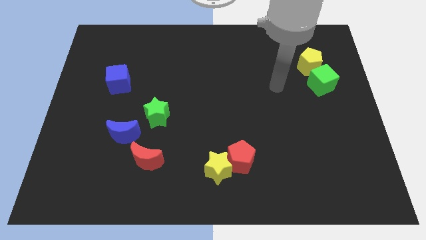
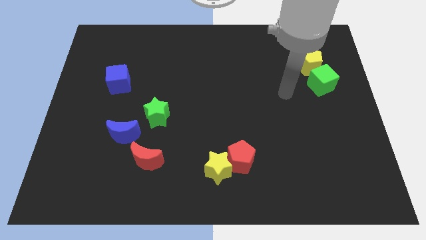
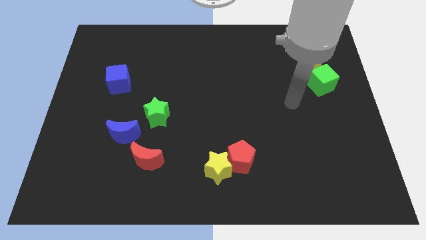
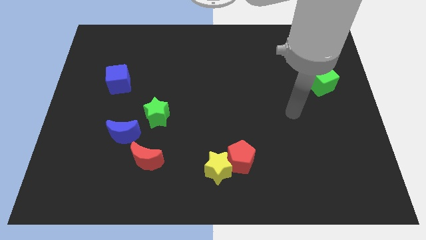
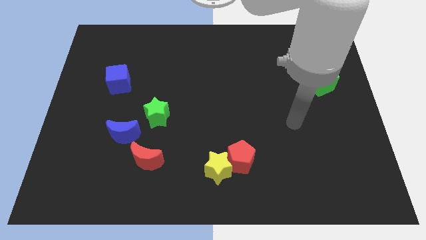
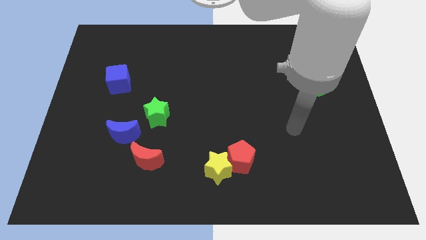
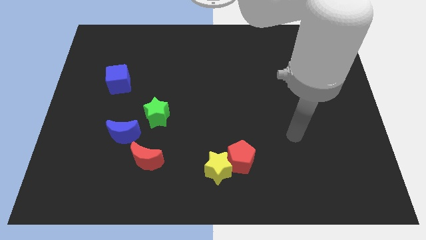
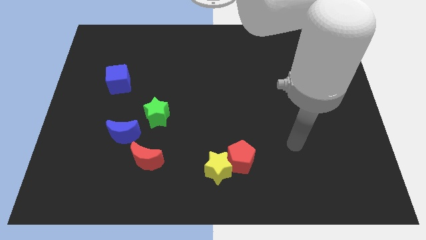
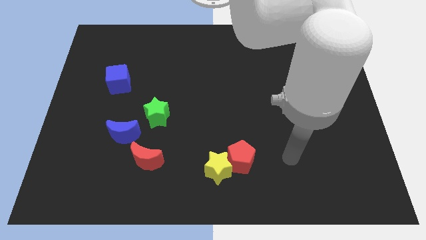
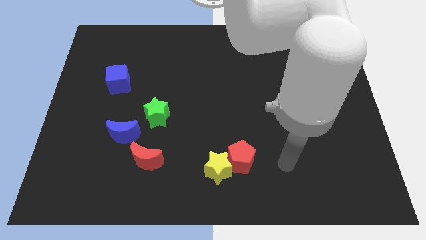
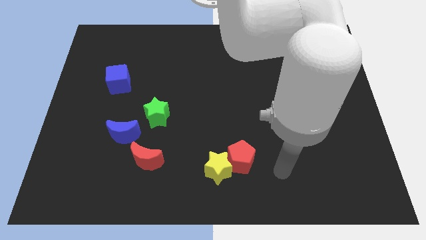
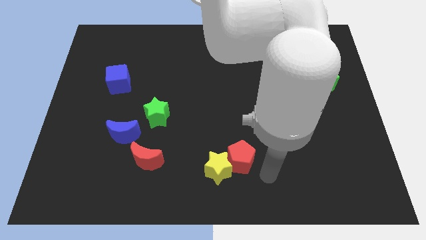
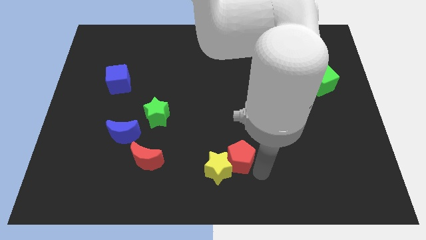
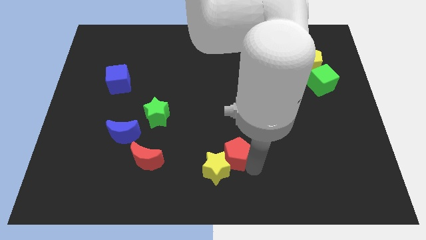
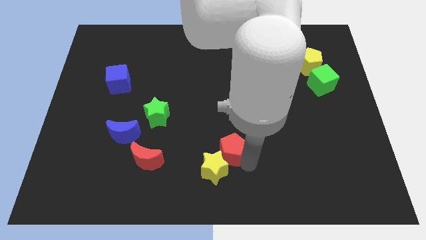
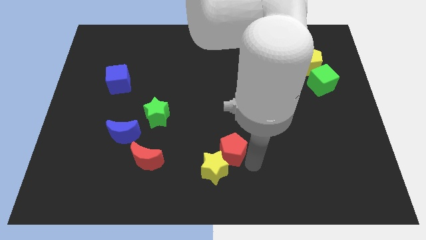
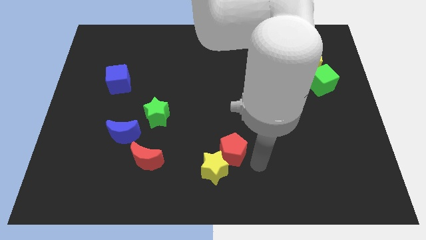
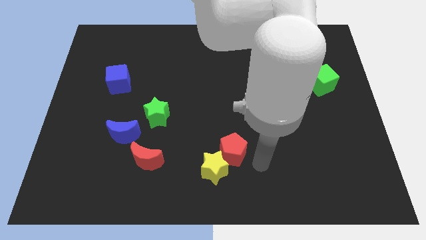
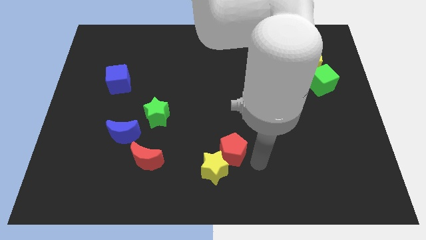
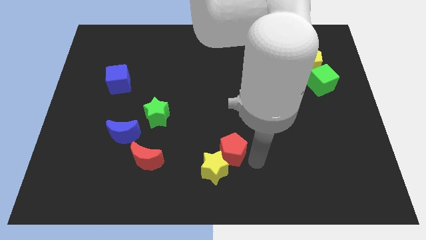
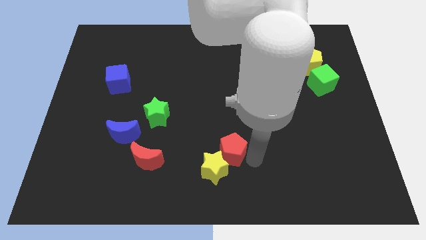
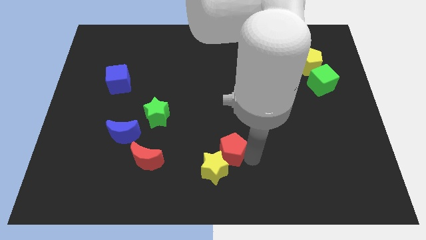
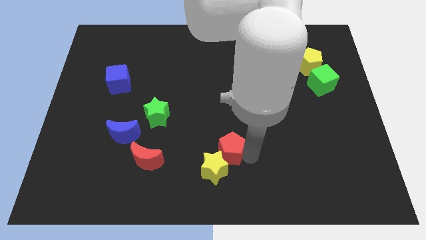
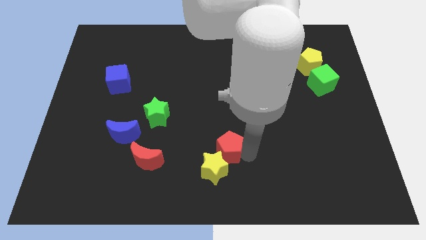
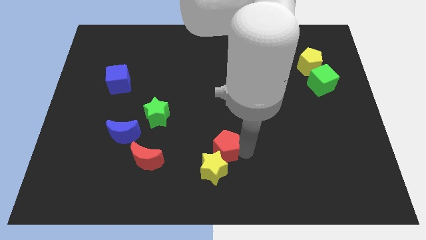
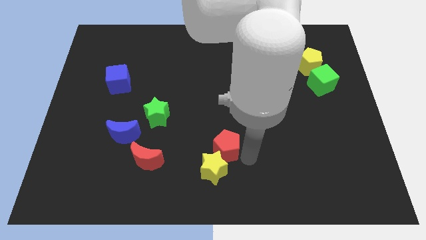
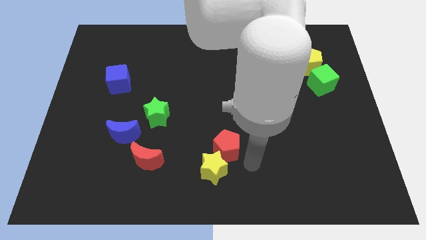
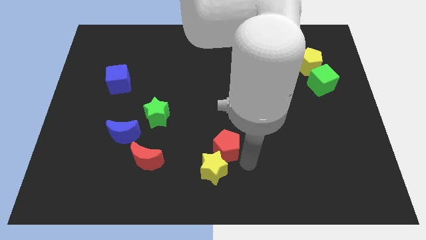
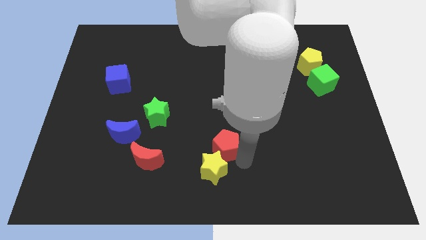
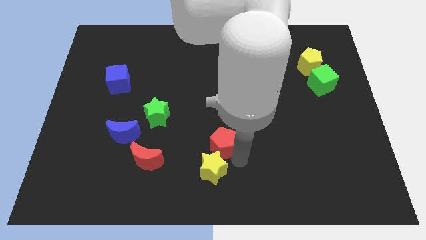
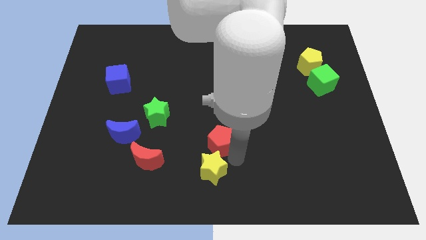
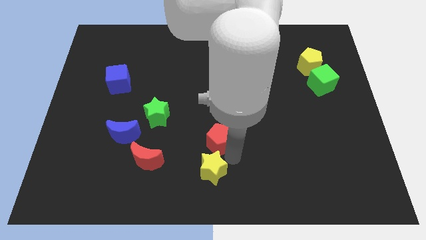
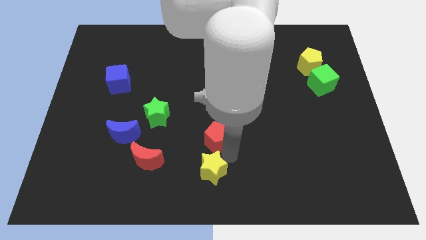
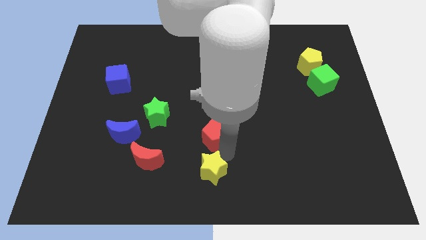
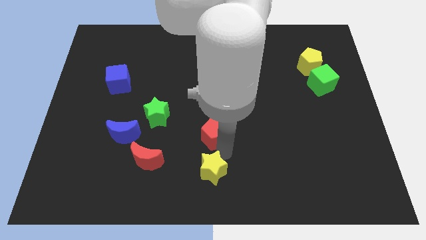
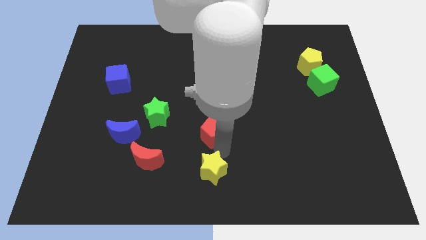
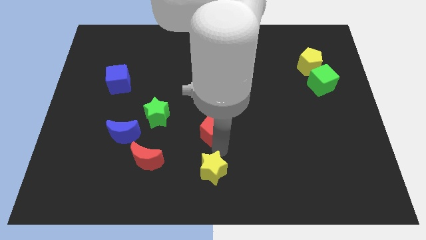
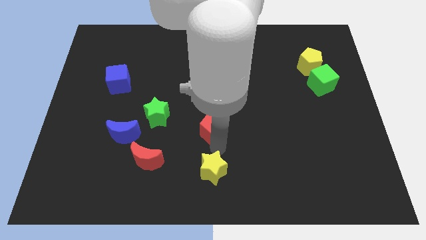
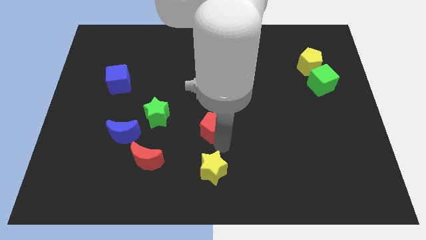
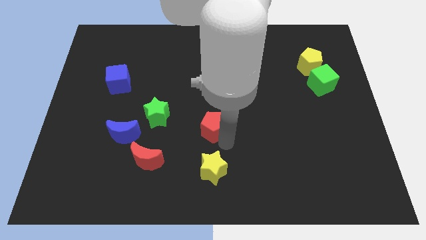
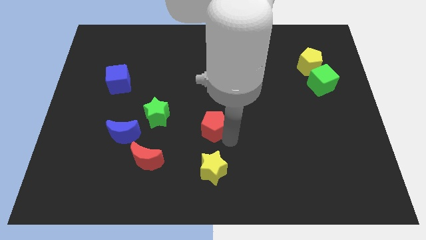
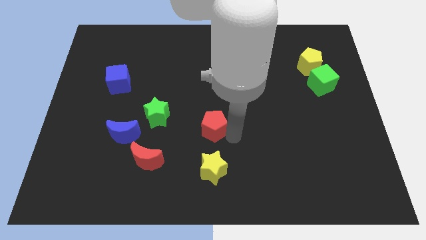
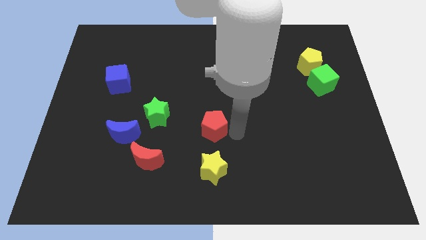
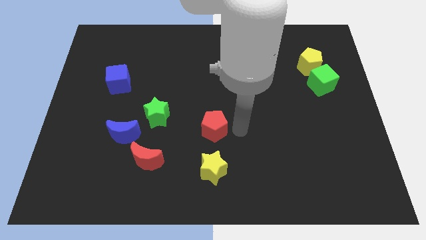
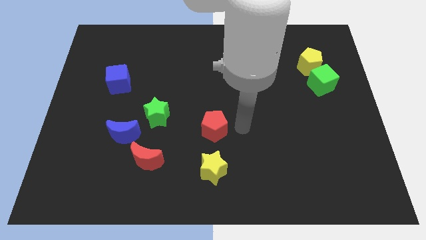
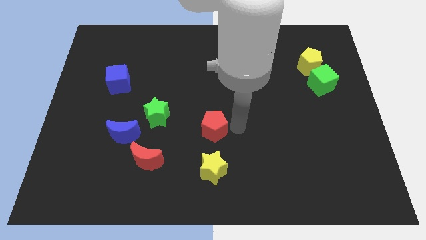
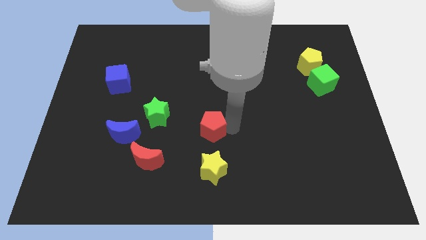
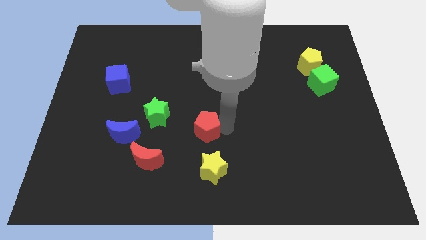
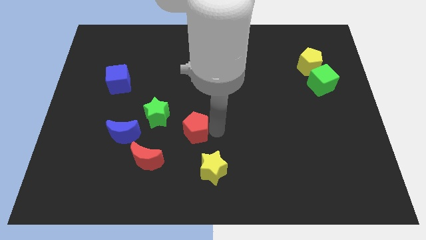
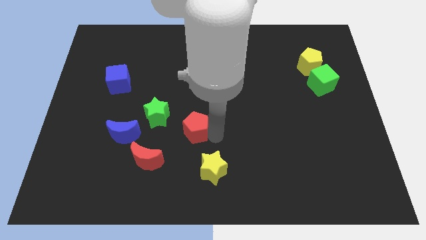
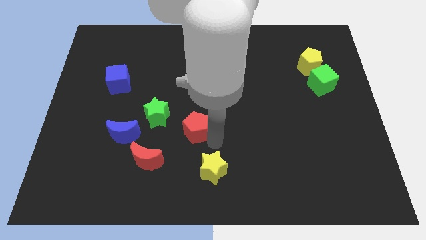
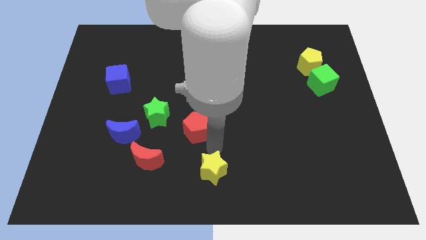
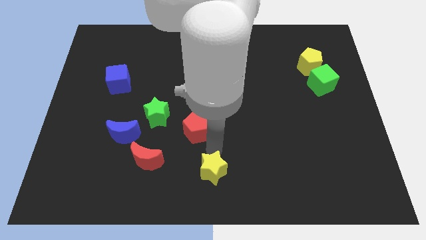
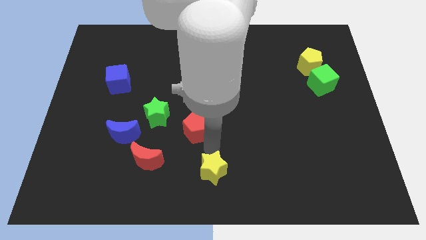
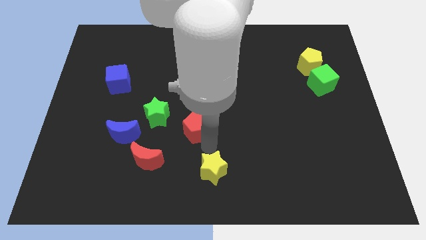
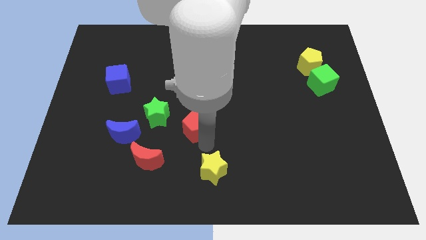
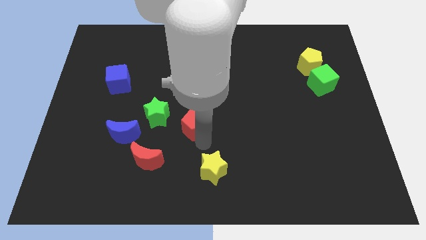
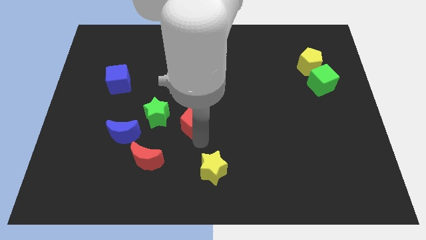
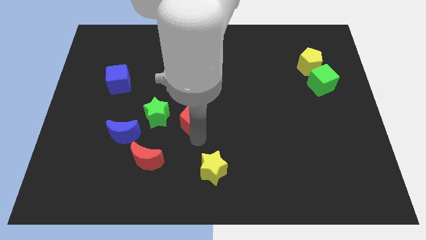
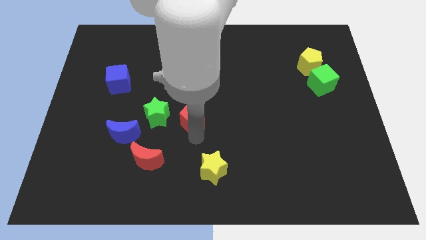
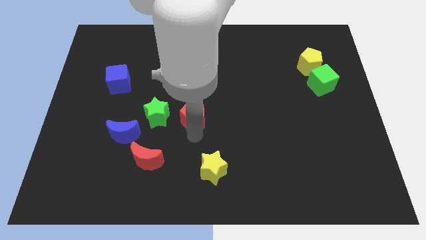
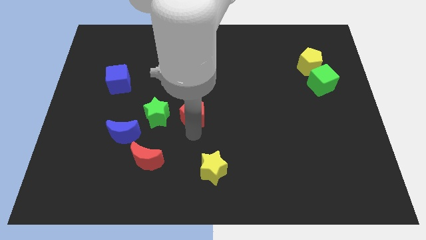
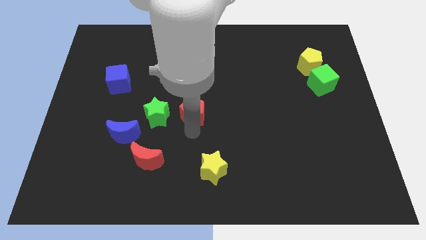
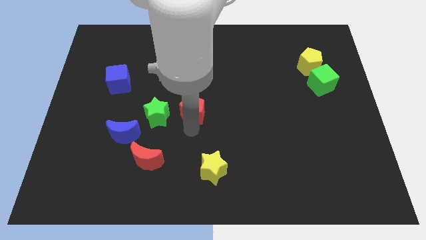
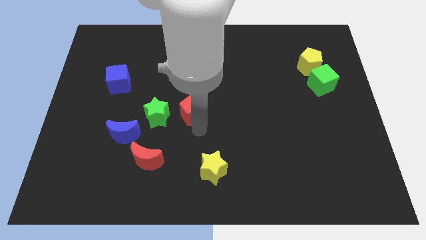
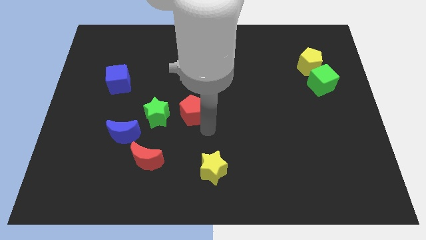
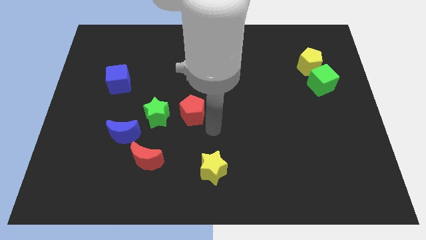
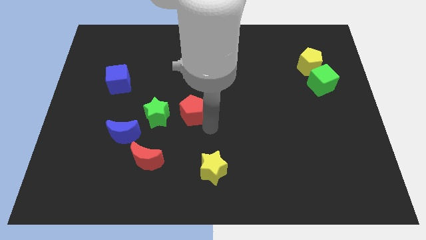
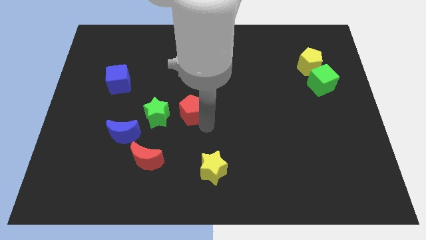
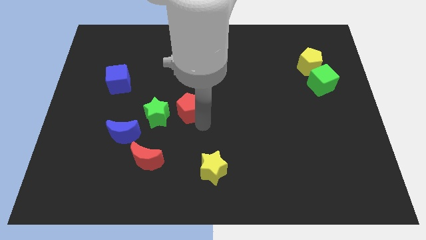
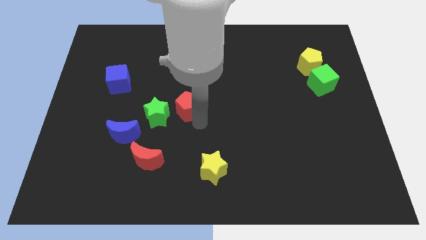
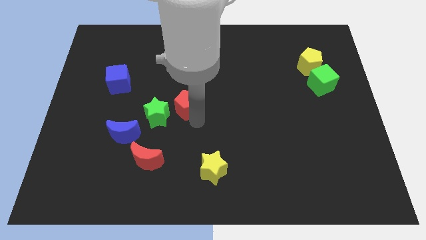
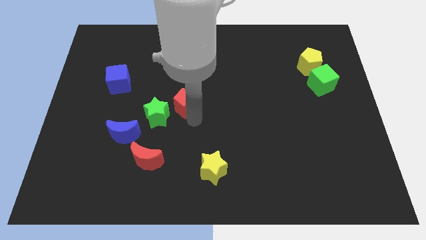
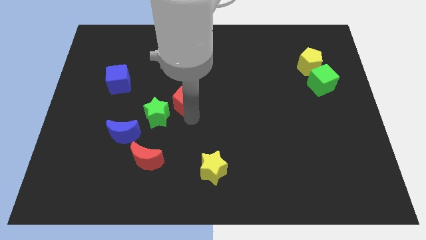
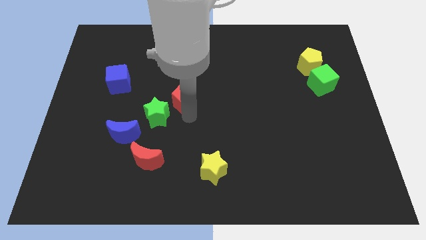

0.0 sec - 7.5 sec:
push the red pentagon diagonally up and to the left
